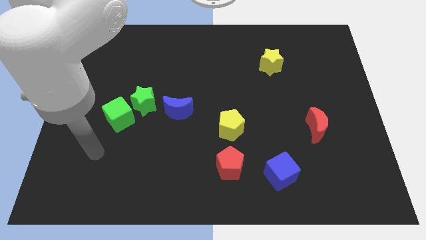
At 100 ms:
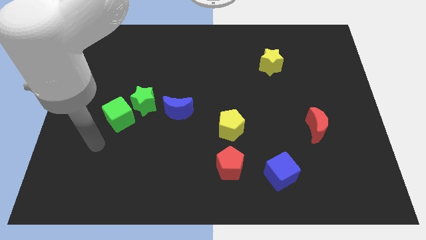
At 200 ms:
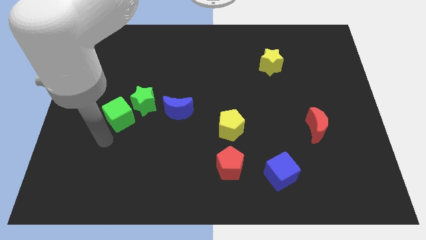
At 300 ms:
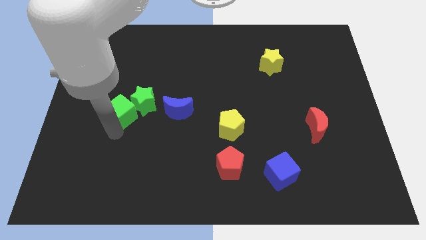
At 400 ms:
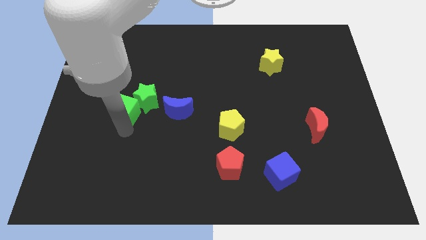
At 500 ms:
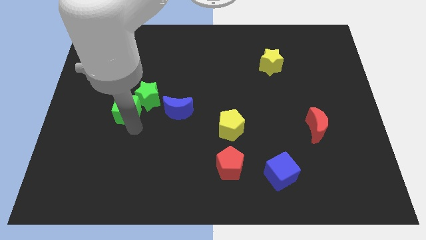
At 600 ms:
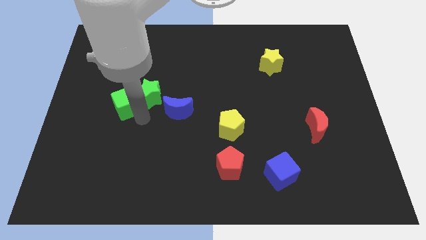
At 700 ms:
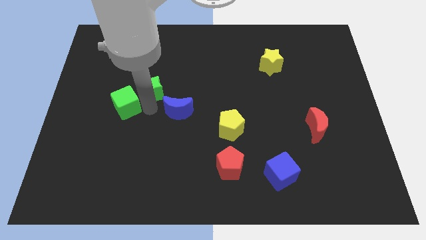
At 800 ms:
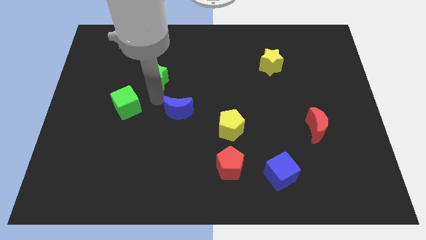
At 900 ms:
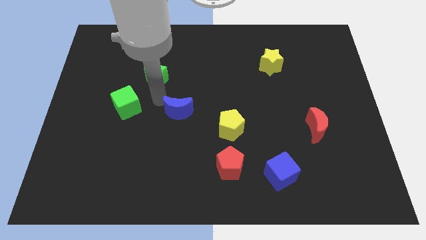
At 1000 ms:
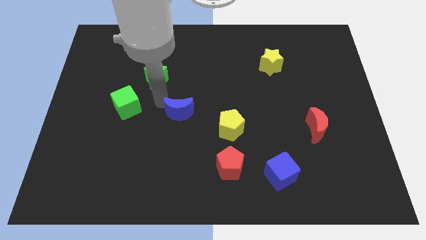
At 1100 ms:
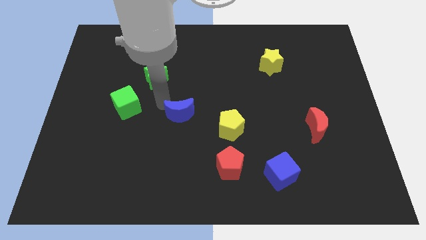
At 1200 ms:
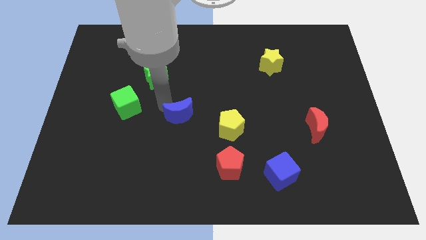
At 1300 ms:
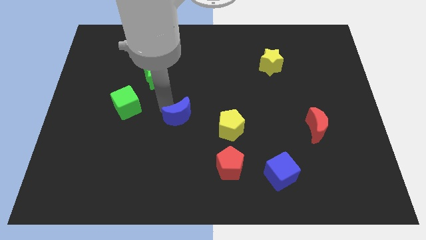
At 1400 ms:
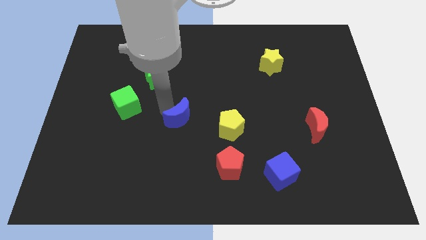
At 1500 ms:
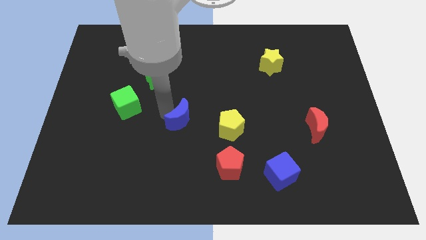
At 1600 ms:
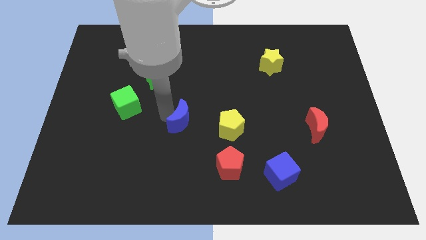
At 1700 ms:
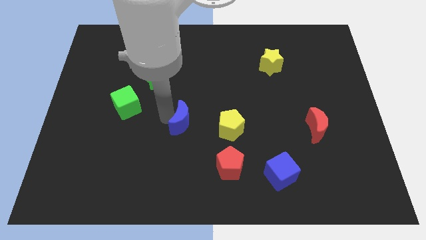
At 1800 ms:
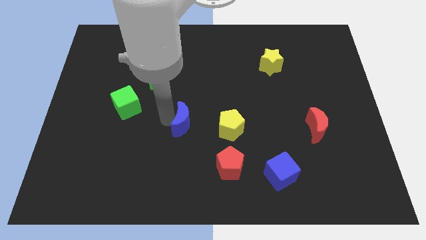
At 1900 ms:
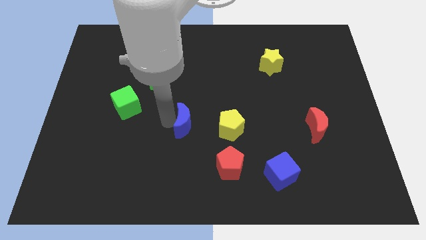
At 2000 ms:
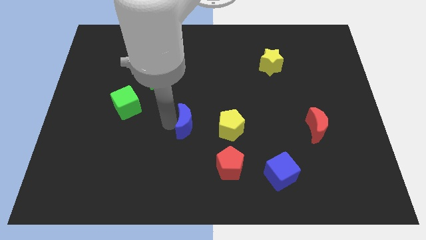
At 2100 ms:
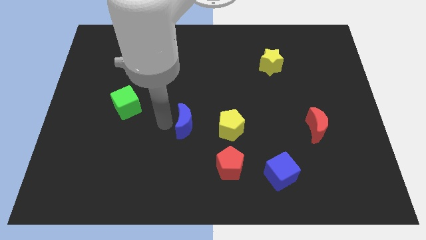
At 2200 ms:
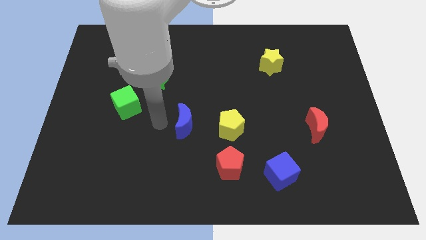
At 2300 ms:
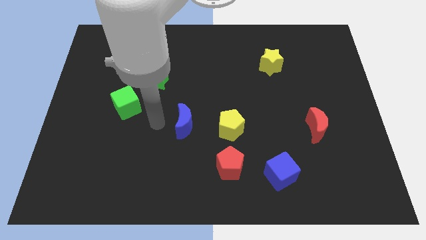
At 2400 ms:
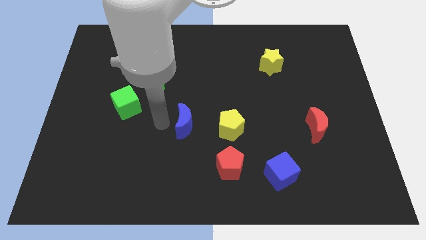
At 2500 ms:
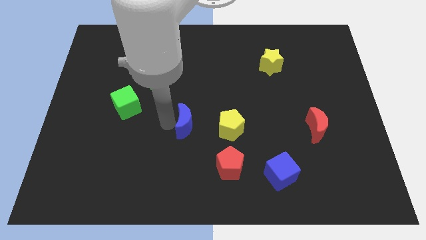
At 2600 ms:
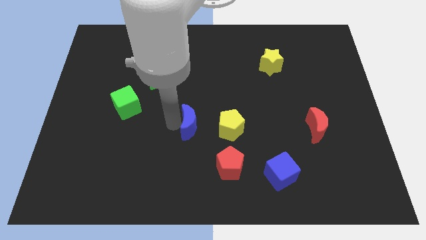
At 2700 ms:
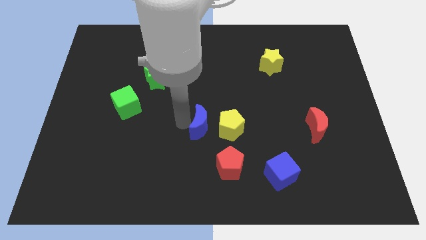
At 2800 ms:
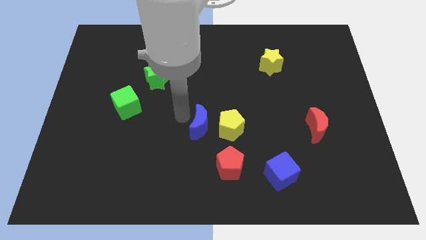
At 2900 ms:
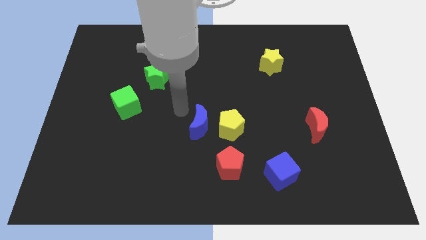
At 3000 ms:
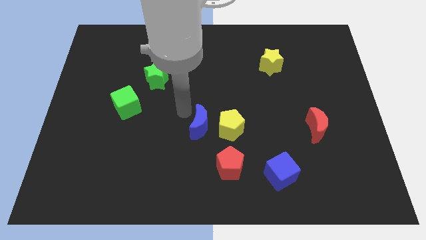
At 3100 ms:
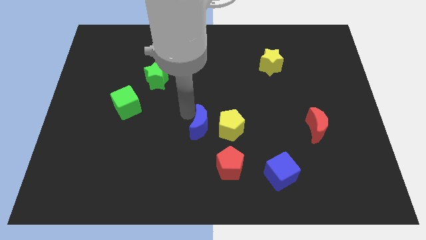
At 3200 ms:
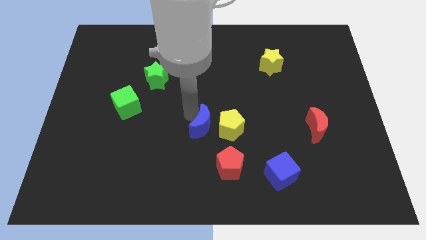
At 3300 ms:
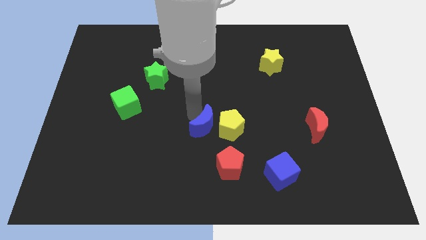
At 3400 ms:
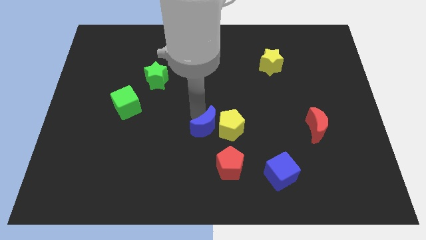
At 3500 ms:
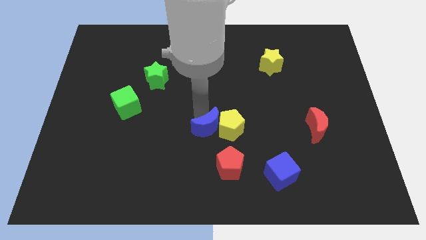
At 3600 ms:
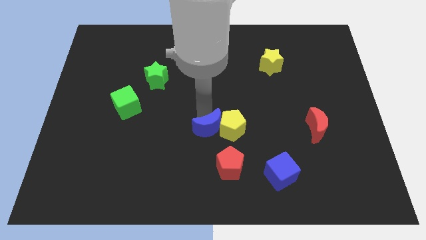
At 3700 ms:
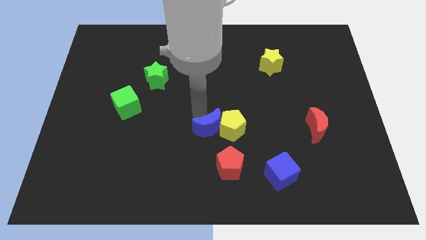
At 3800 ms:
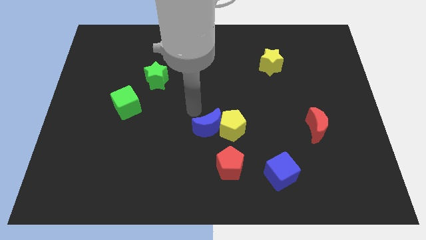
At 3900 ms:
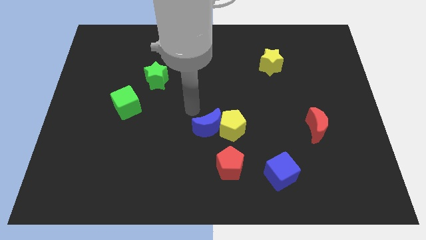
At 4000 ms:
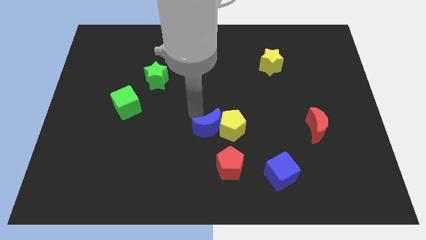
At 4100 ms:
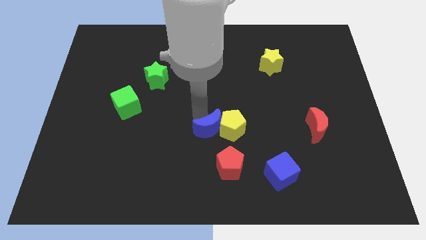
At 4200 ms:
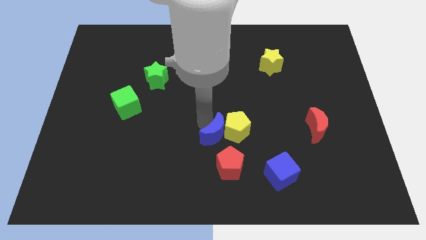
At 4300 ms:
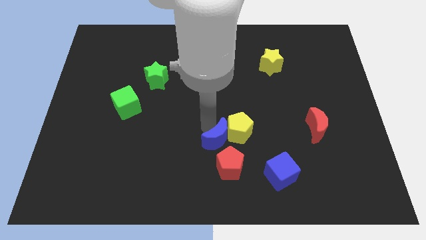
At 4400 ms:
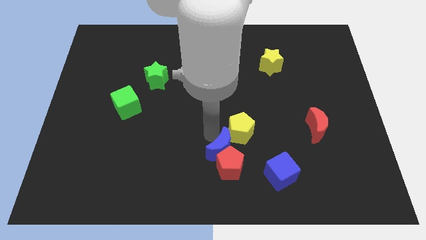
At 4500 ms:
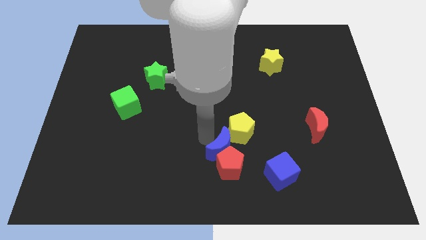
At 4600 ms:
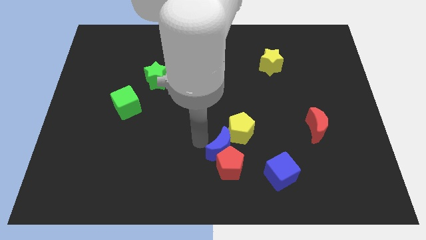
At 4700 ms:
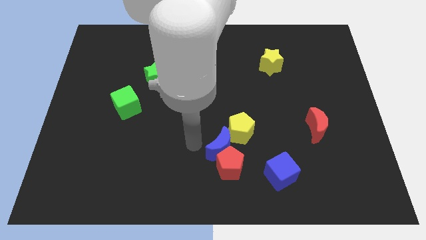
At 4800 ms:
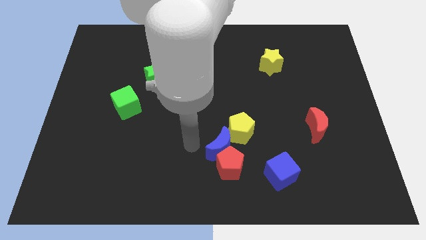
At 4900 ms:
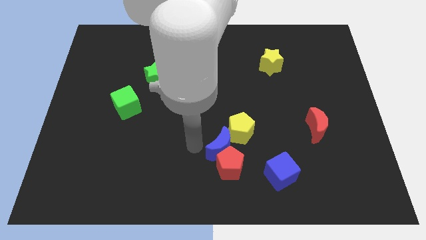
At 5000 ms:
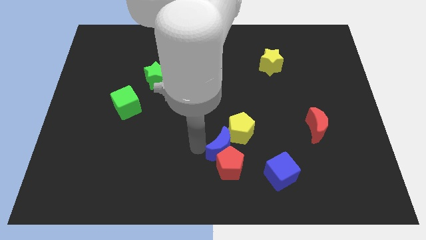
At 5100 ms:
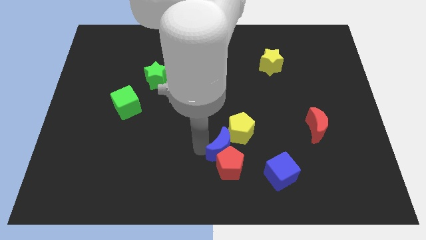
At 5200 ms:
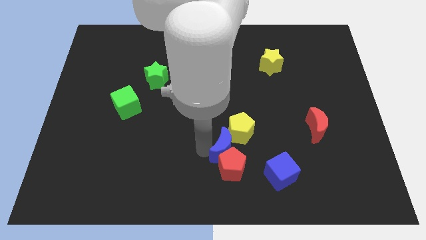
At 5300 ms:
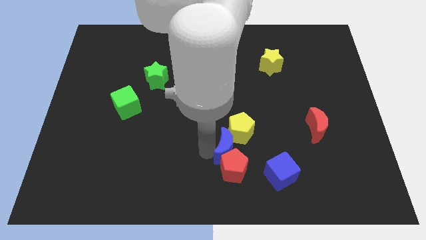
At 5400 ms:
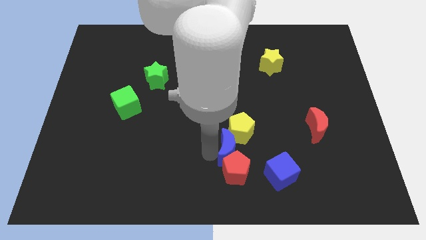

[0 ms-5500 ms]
put the blue moon to the top left side of the blue cube

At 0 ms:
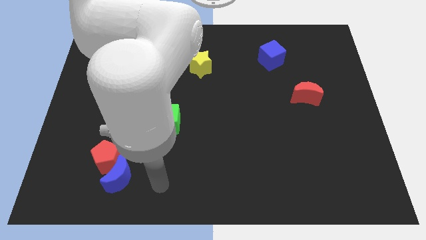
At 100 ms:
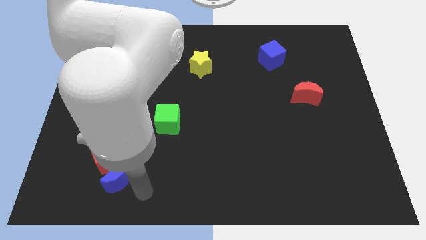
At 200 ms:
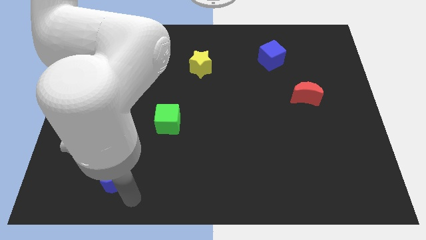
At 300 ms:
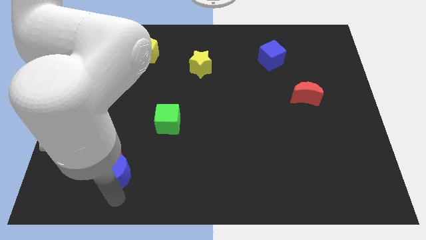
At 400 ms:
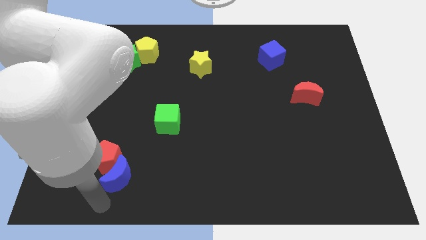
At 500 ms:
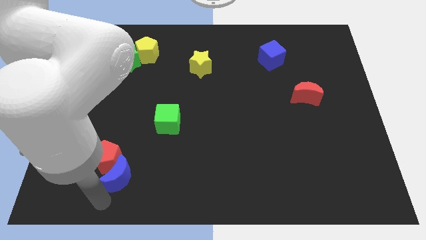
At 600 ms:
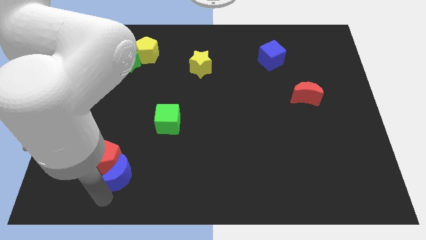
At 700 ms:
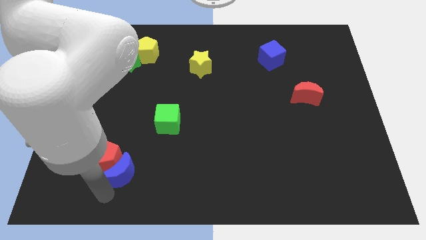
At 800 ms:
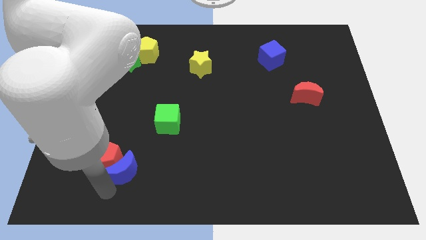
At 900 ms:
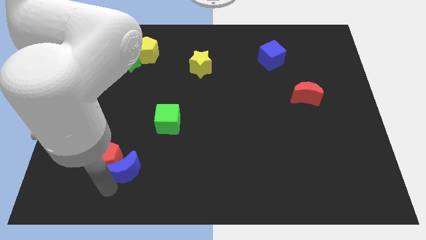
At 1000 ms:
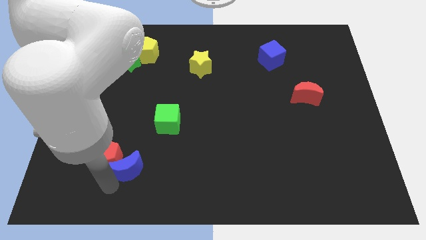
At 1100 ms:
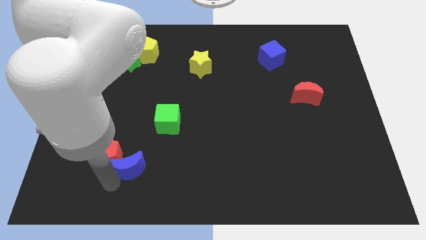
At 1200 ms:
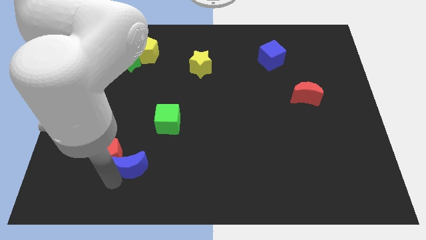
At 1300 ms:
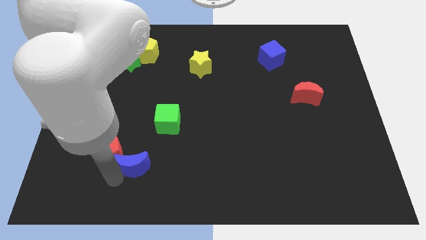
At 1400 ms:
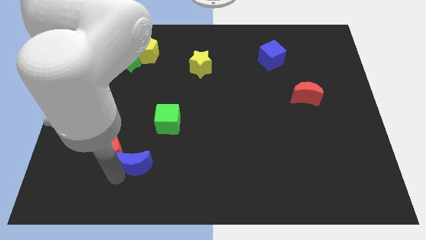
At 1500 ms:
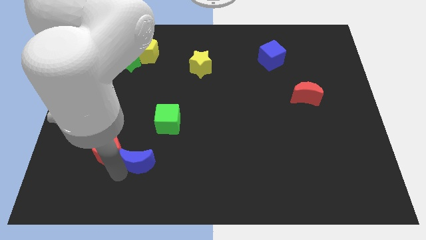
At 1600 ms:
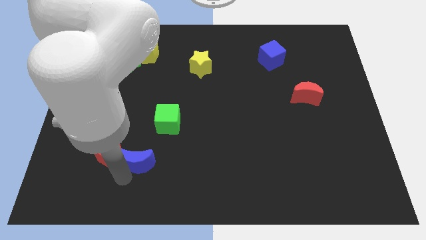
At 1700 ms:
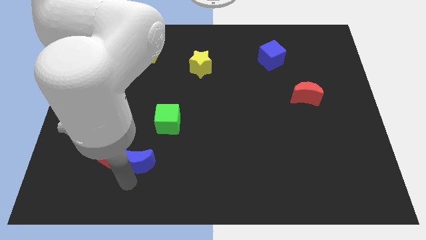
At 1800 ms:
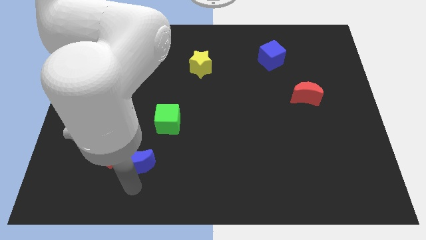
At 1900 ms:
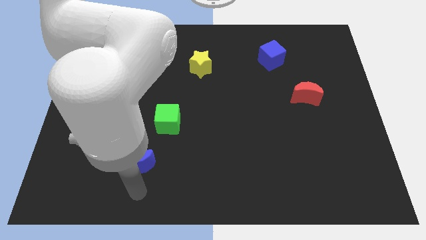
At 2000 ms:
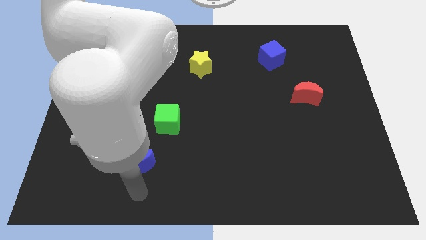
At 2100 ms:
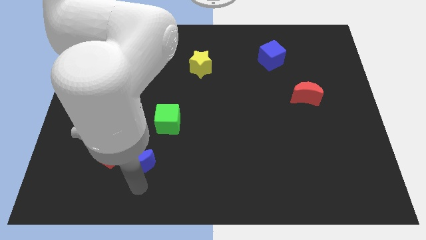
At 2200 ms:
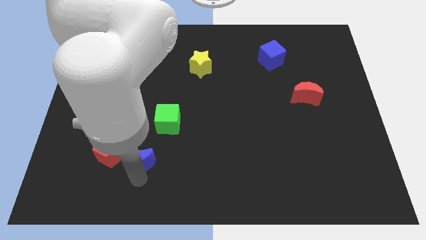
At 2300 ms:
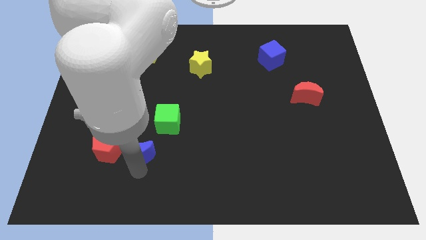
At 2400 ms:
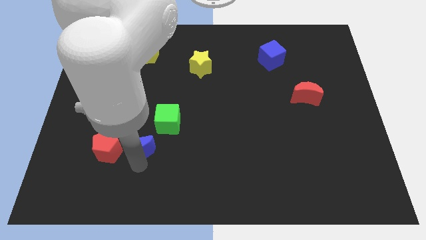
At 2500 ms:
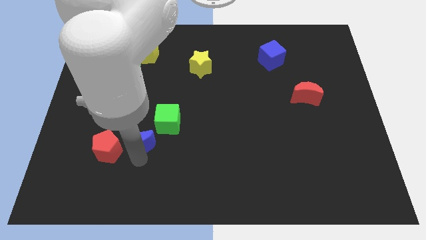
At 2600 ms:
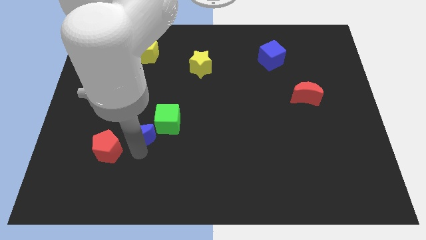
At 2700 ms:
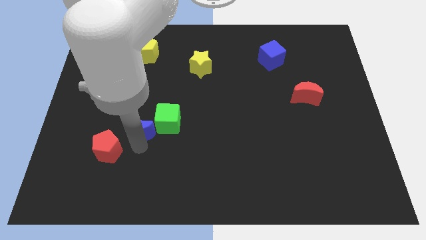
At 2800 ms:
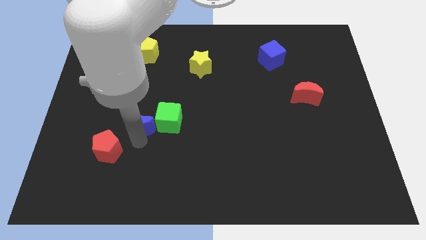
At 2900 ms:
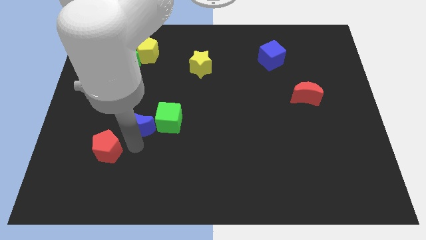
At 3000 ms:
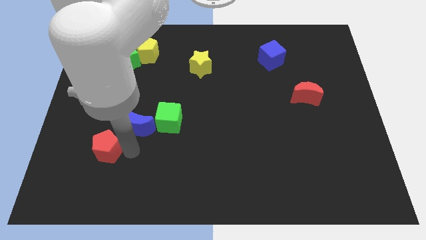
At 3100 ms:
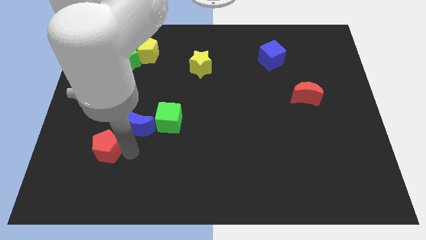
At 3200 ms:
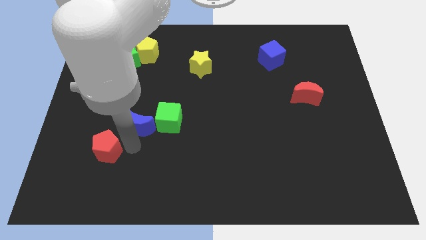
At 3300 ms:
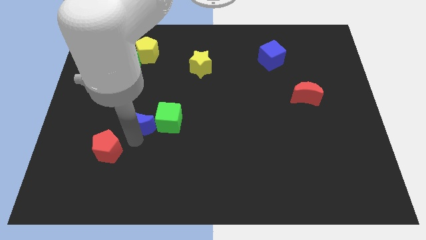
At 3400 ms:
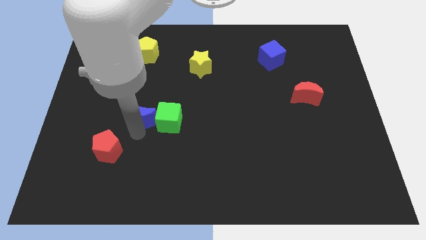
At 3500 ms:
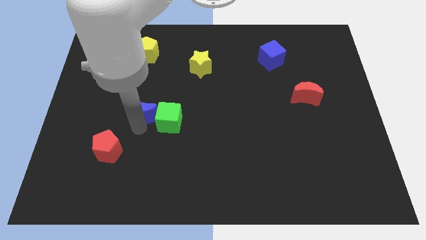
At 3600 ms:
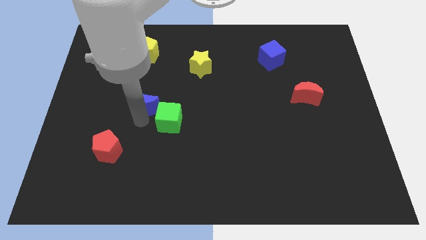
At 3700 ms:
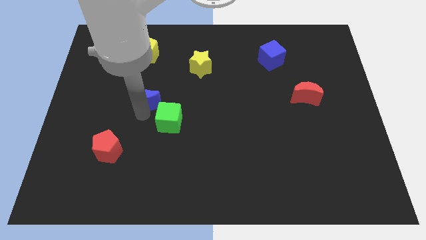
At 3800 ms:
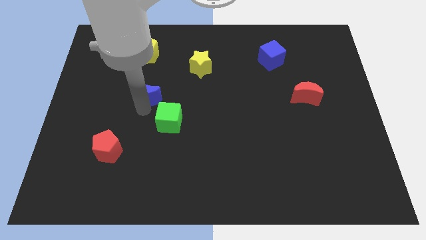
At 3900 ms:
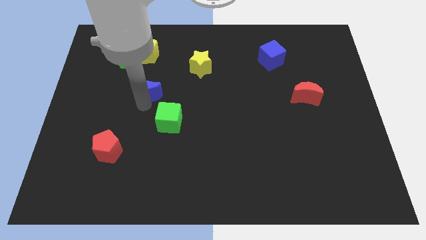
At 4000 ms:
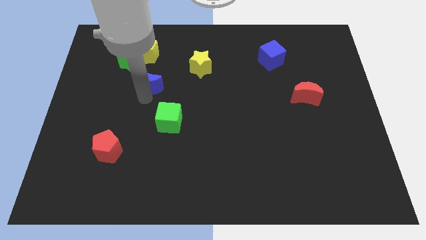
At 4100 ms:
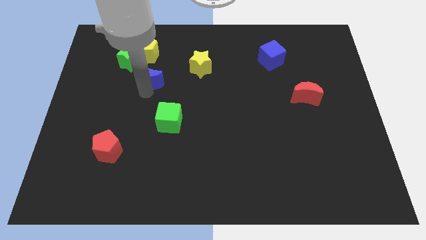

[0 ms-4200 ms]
move the blue moon to the left side of the yellow star
